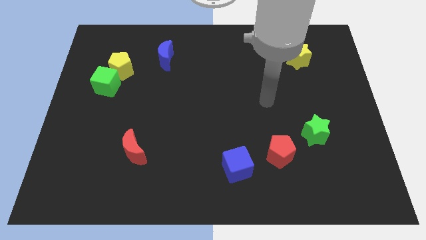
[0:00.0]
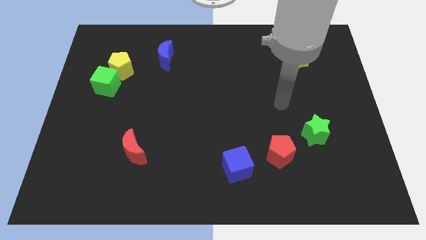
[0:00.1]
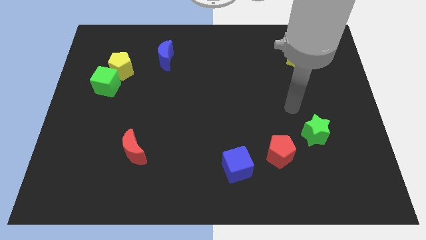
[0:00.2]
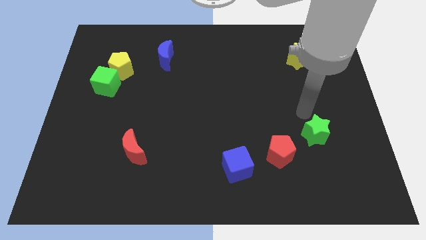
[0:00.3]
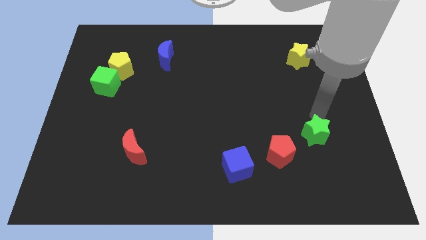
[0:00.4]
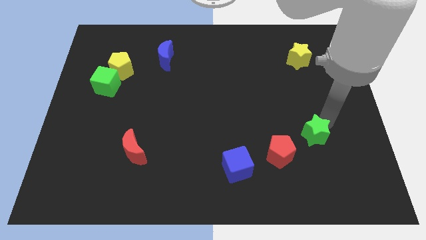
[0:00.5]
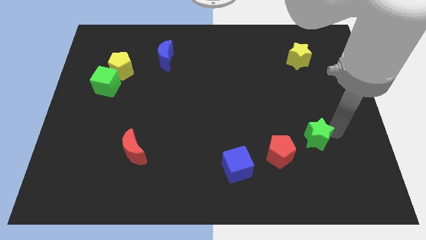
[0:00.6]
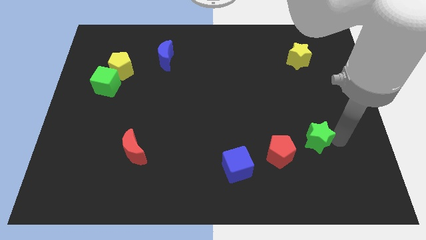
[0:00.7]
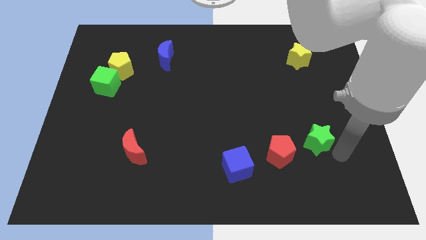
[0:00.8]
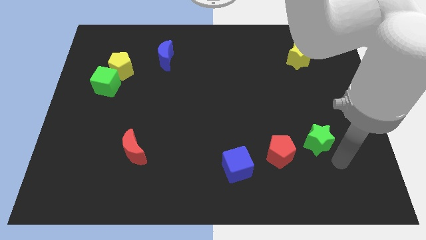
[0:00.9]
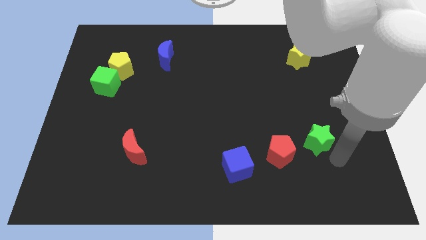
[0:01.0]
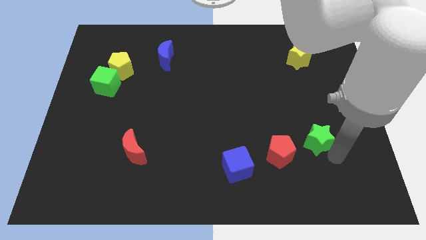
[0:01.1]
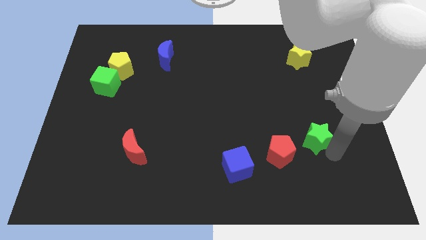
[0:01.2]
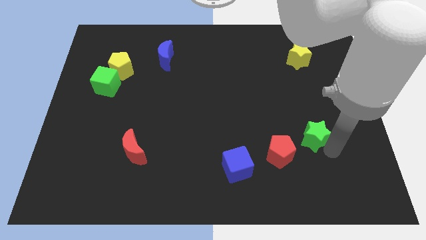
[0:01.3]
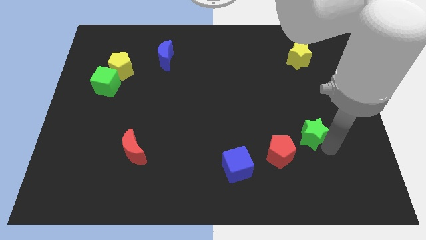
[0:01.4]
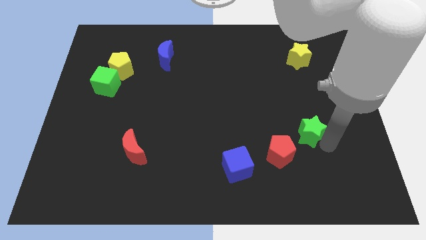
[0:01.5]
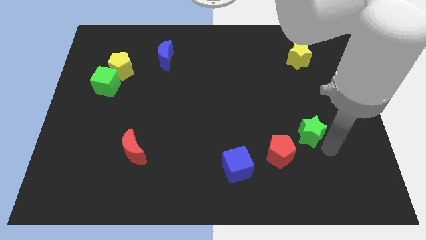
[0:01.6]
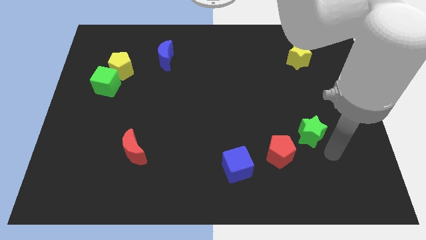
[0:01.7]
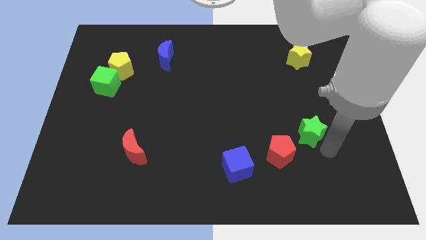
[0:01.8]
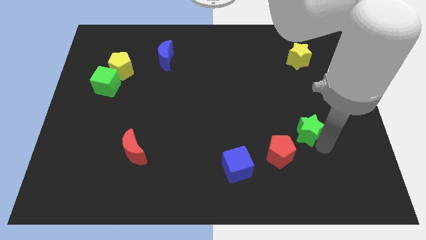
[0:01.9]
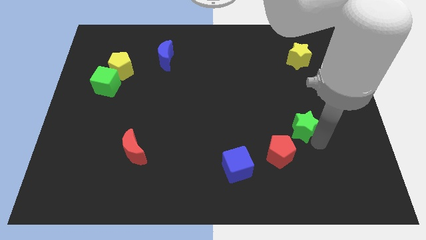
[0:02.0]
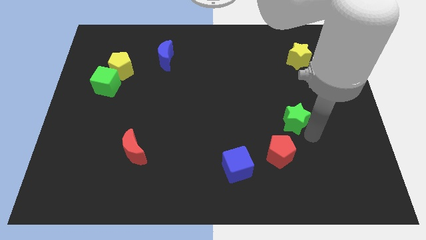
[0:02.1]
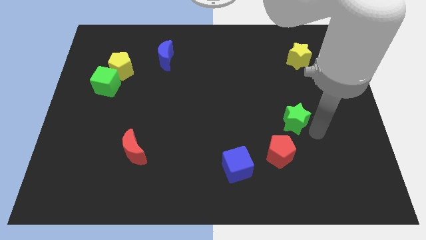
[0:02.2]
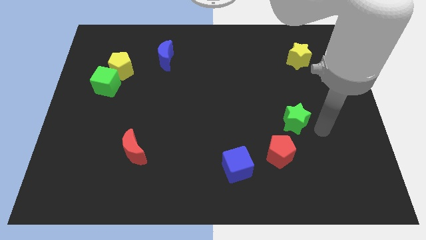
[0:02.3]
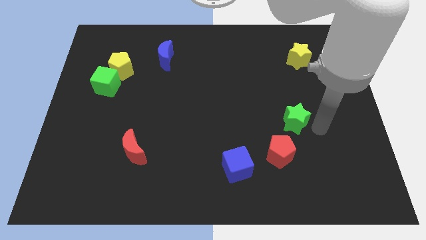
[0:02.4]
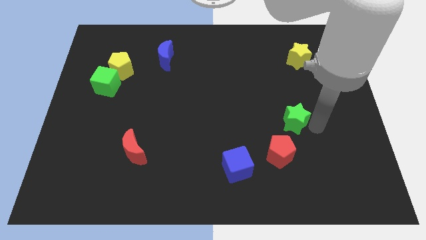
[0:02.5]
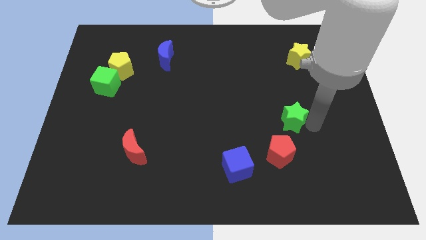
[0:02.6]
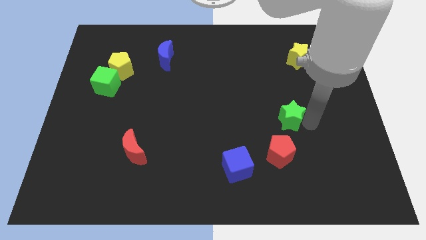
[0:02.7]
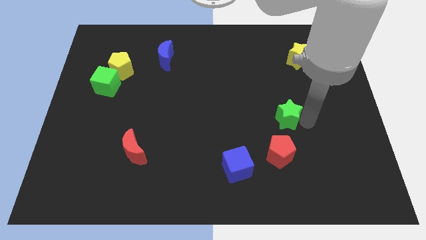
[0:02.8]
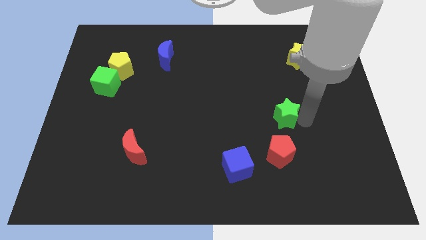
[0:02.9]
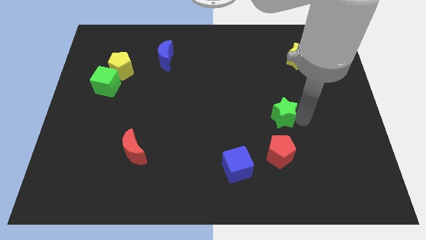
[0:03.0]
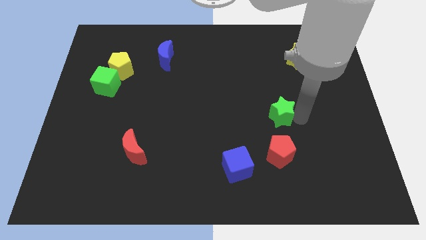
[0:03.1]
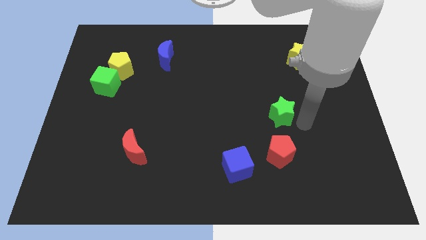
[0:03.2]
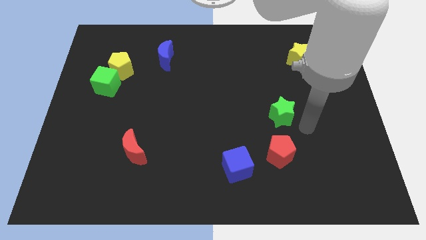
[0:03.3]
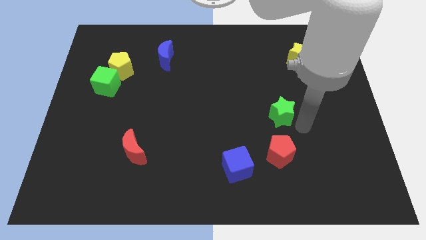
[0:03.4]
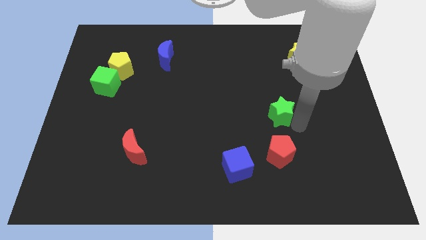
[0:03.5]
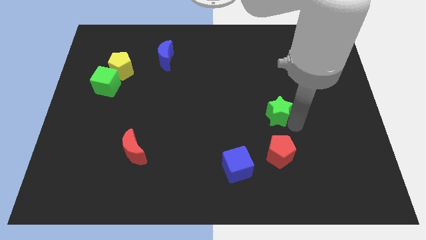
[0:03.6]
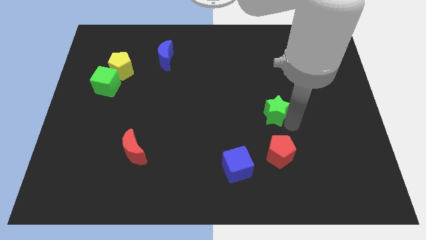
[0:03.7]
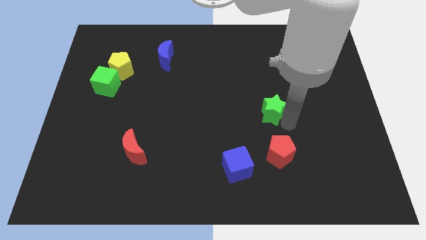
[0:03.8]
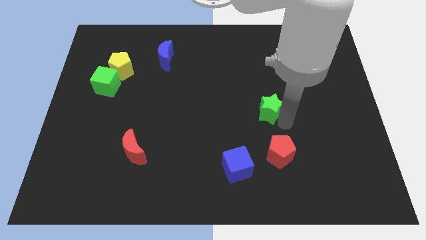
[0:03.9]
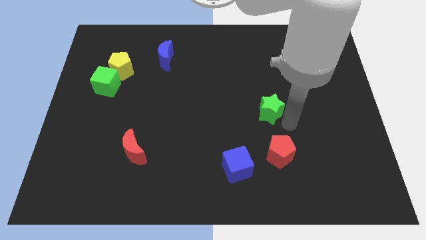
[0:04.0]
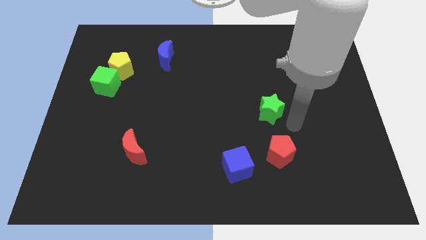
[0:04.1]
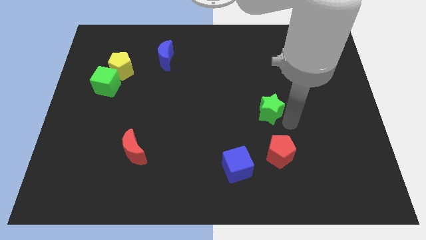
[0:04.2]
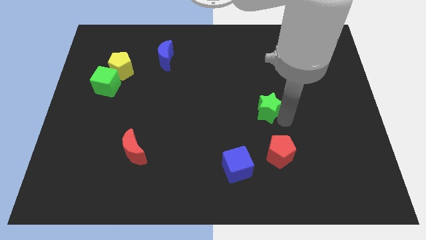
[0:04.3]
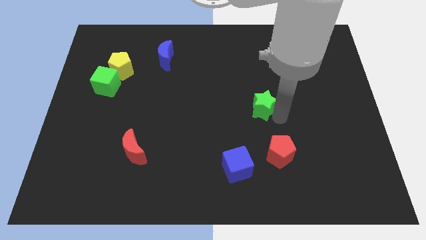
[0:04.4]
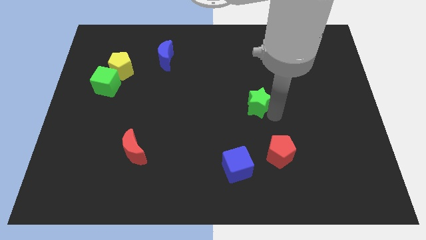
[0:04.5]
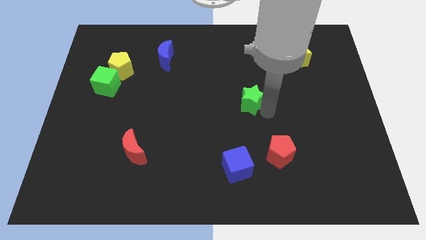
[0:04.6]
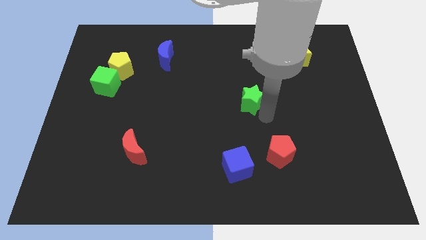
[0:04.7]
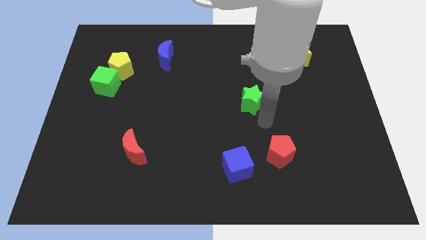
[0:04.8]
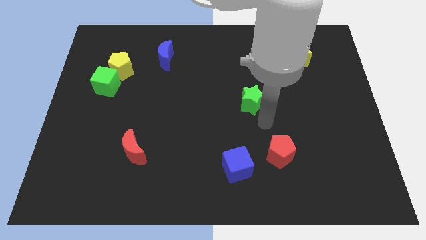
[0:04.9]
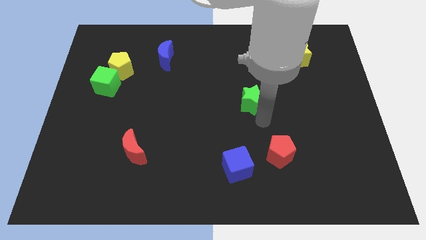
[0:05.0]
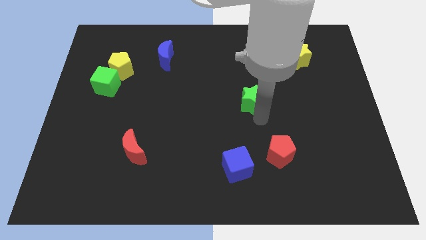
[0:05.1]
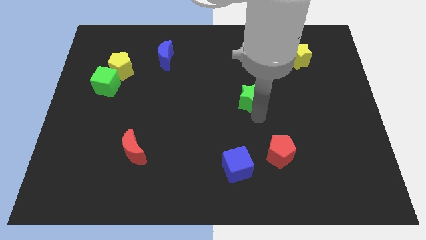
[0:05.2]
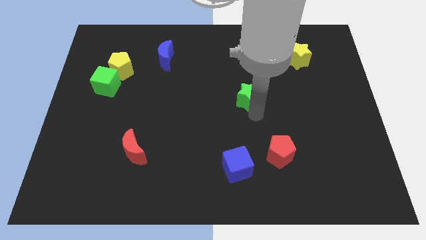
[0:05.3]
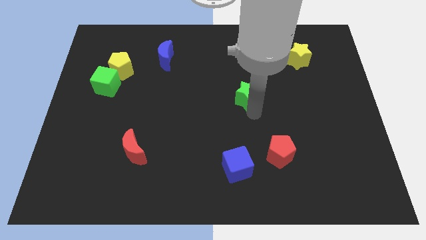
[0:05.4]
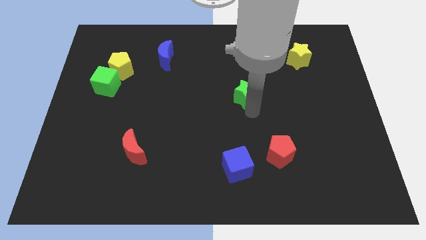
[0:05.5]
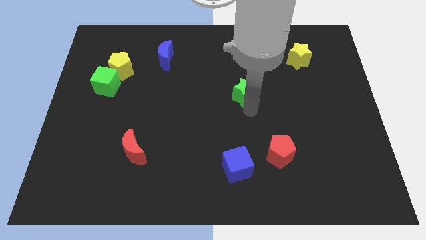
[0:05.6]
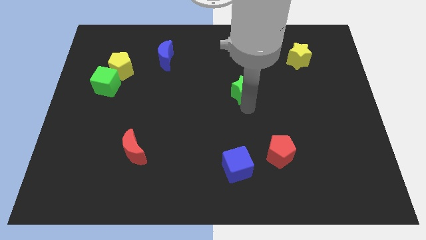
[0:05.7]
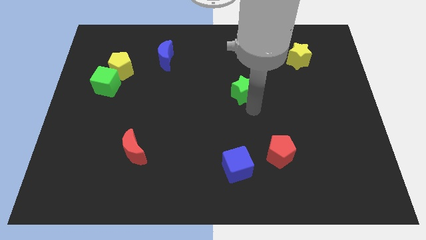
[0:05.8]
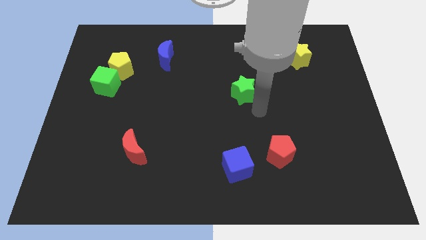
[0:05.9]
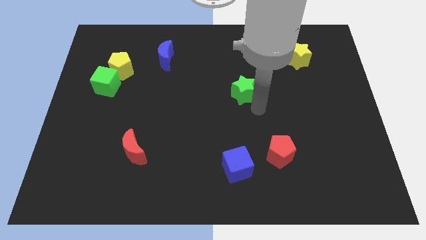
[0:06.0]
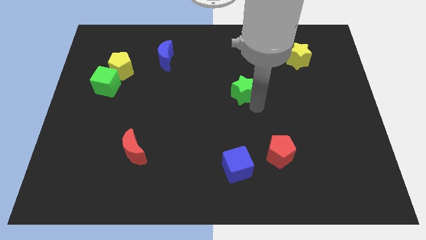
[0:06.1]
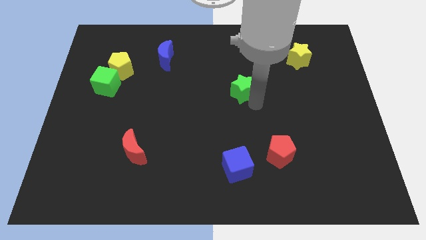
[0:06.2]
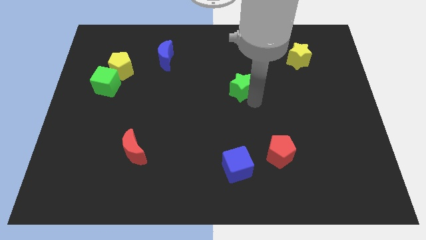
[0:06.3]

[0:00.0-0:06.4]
move the green star up and to the left

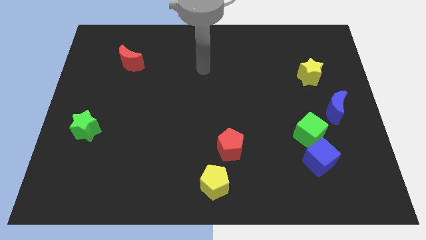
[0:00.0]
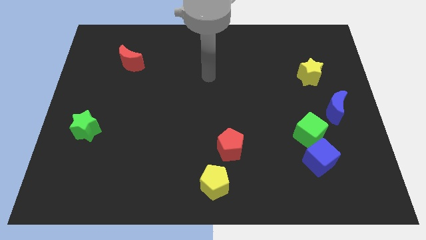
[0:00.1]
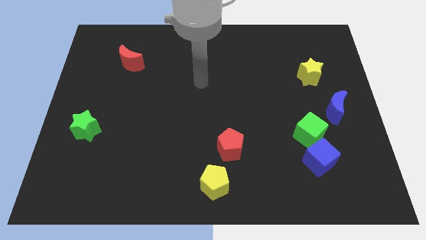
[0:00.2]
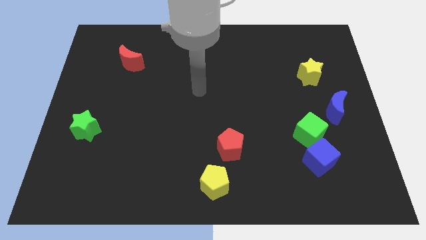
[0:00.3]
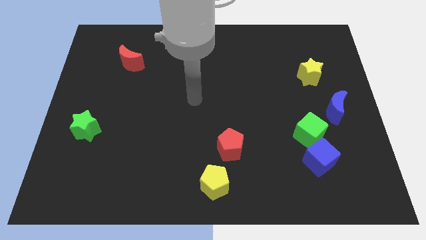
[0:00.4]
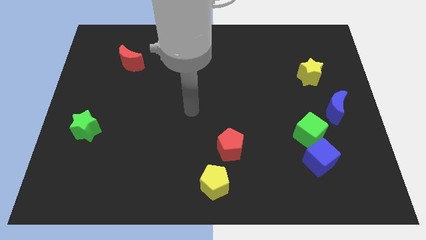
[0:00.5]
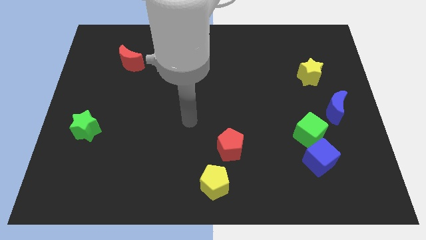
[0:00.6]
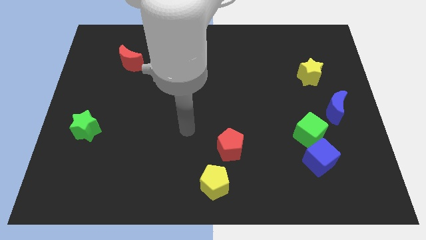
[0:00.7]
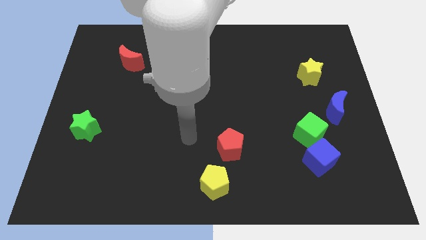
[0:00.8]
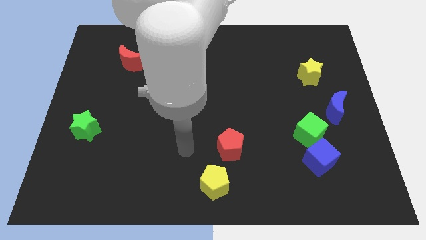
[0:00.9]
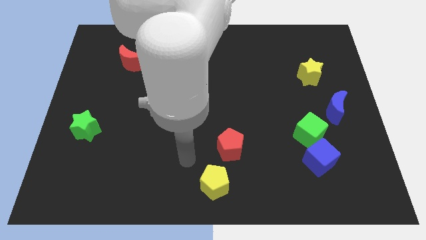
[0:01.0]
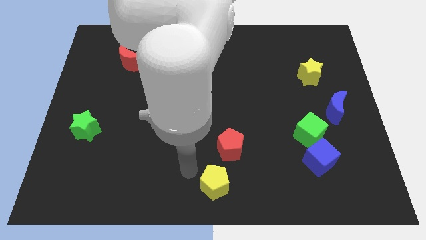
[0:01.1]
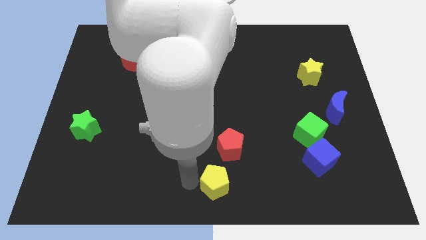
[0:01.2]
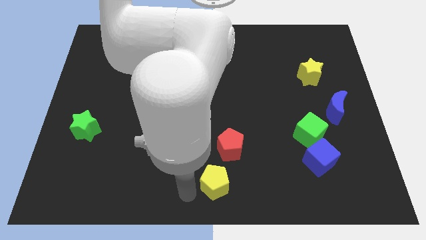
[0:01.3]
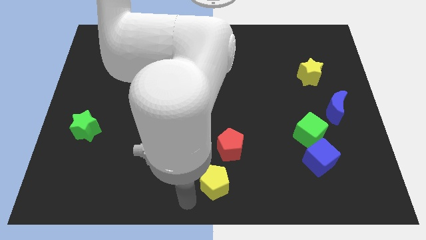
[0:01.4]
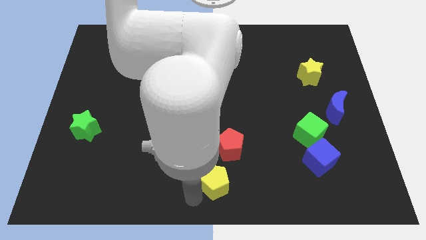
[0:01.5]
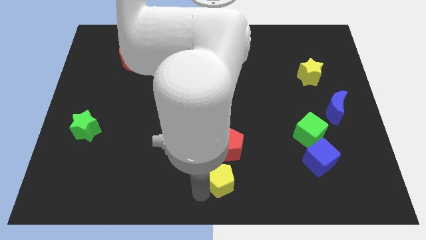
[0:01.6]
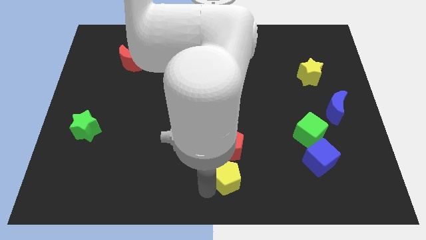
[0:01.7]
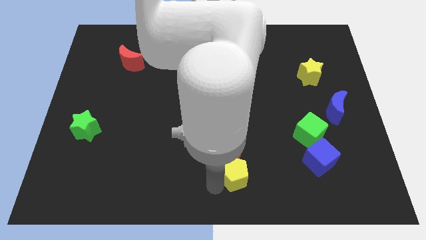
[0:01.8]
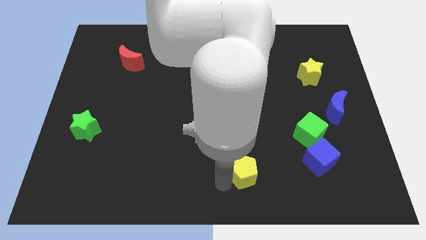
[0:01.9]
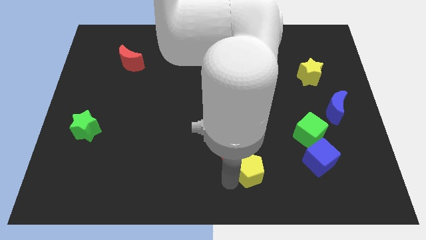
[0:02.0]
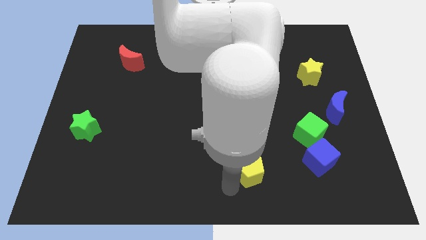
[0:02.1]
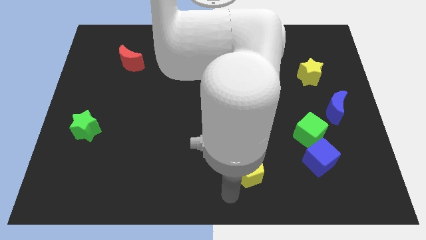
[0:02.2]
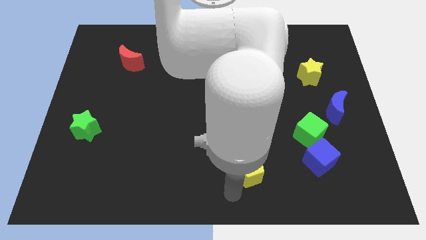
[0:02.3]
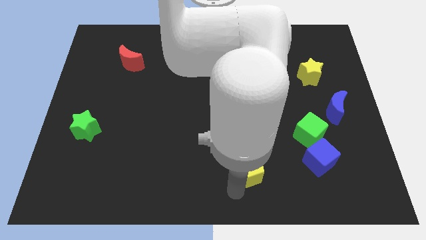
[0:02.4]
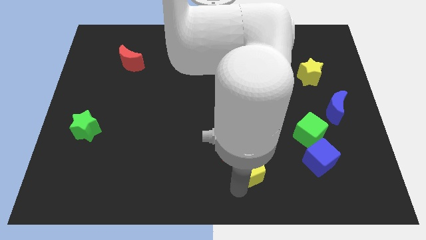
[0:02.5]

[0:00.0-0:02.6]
push the yellow pentagon up and right diagonally slightly
